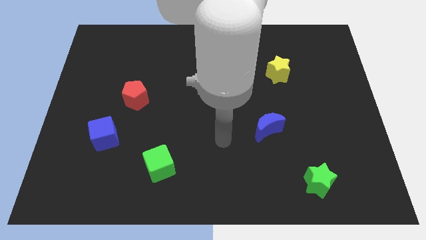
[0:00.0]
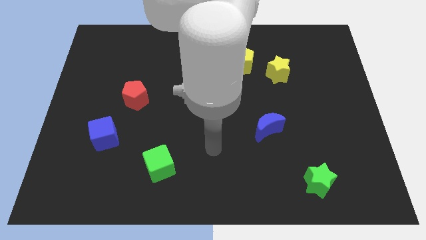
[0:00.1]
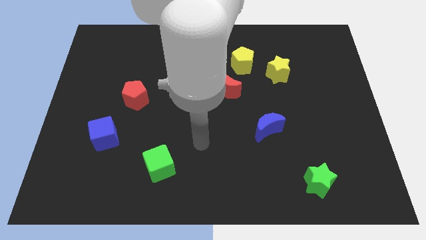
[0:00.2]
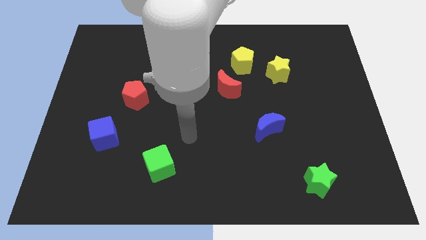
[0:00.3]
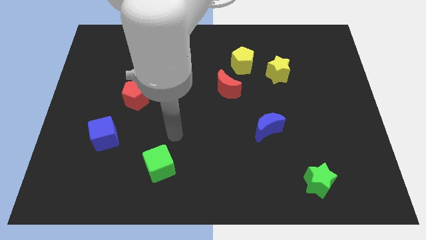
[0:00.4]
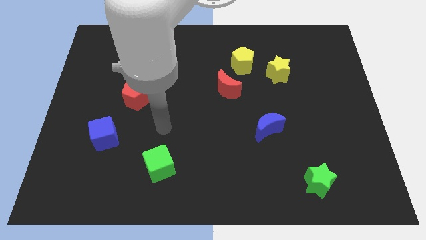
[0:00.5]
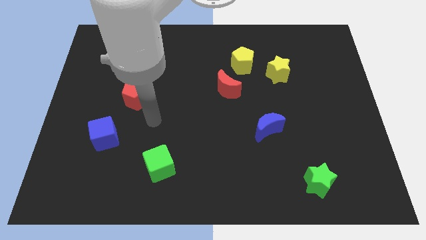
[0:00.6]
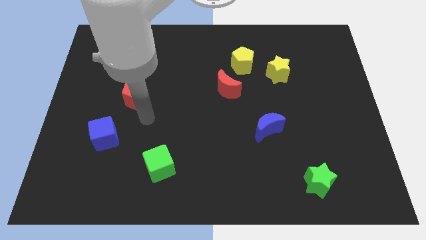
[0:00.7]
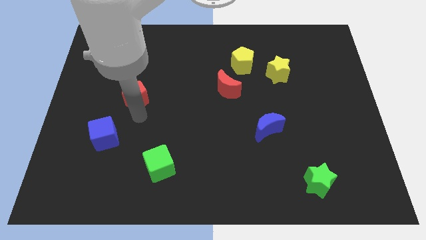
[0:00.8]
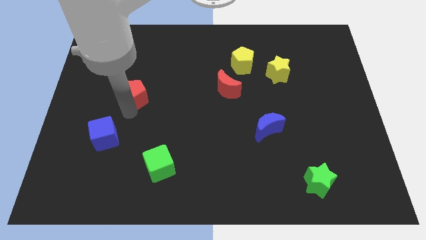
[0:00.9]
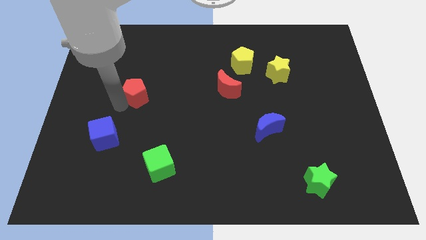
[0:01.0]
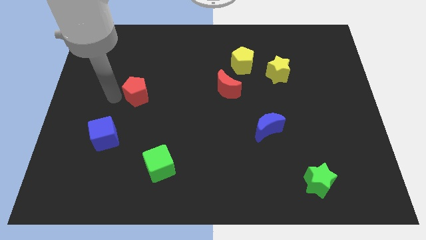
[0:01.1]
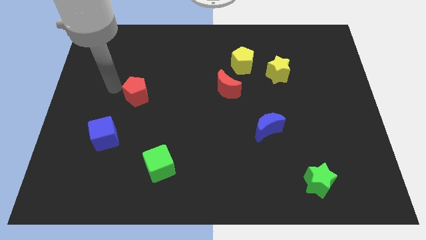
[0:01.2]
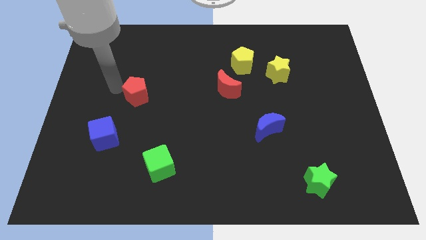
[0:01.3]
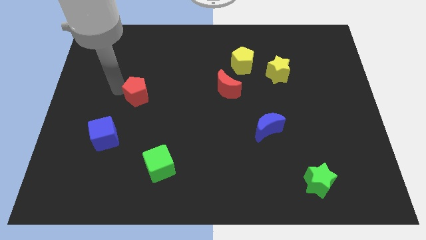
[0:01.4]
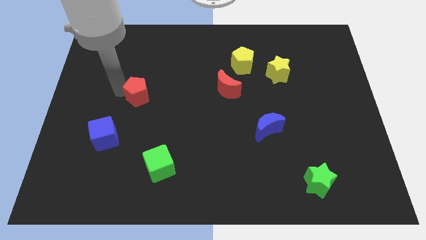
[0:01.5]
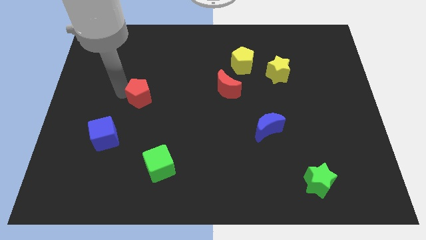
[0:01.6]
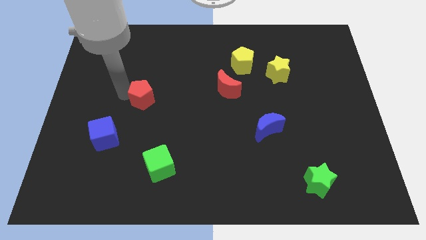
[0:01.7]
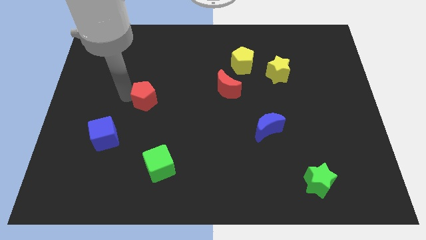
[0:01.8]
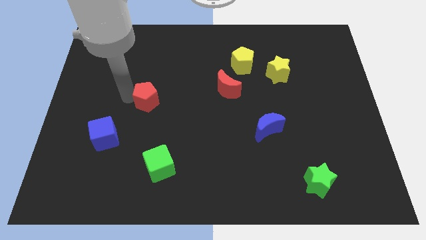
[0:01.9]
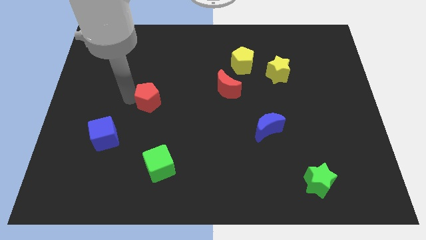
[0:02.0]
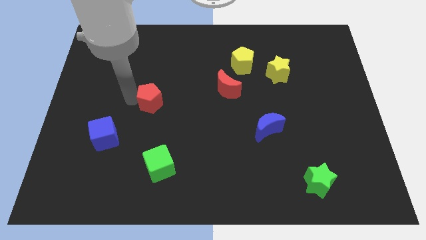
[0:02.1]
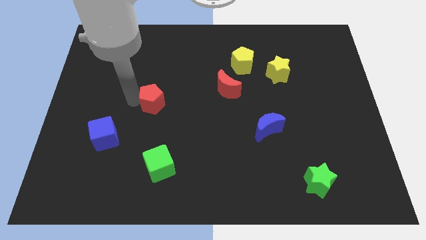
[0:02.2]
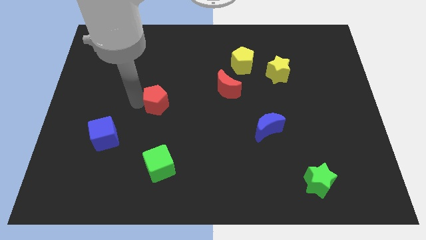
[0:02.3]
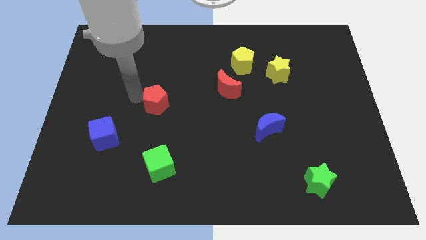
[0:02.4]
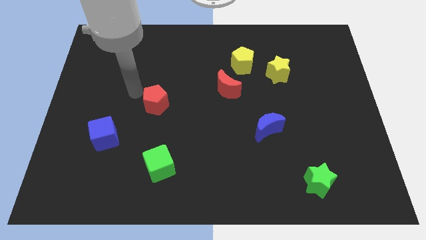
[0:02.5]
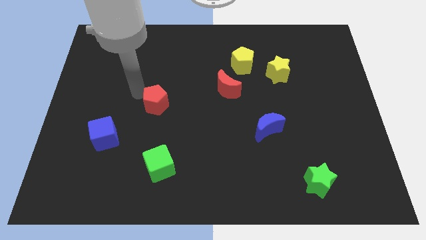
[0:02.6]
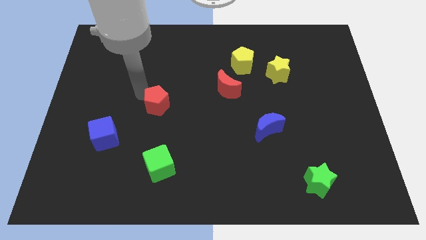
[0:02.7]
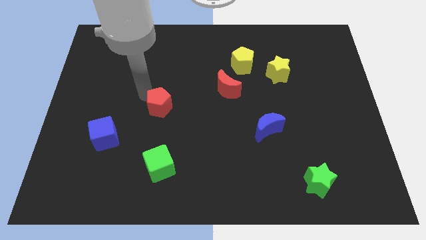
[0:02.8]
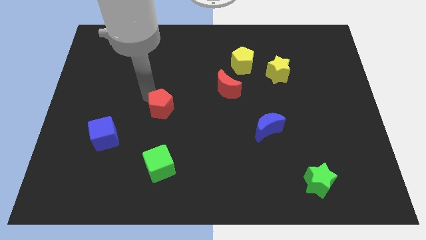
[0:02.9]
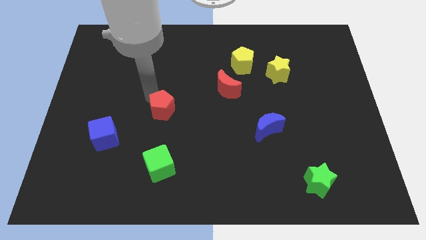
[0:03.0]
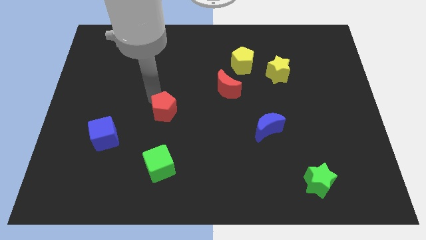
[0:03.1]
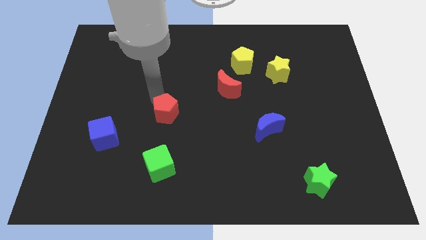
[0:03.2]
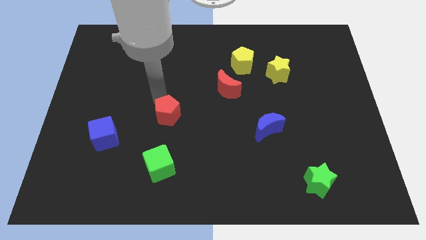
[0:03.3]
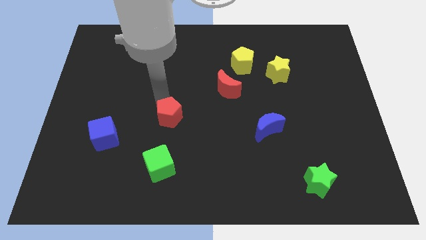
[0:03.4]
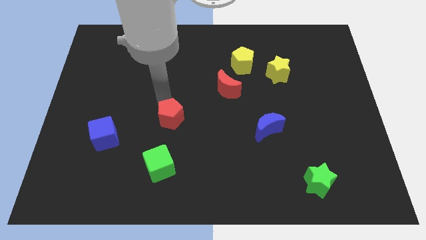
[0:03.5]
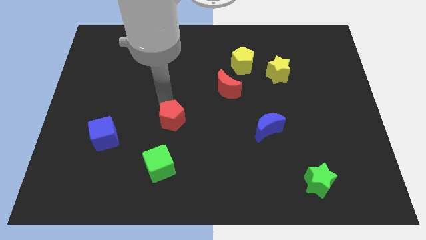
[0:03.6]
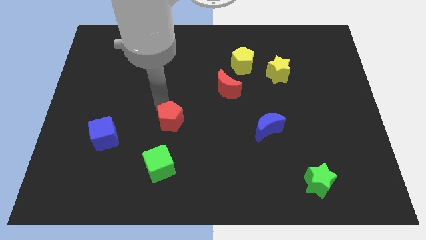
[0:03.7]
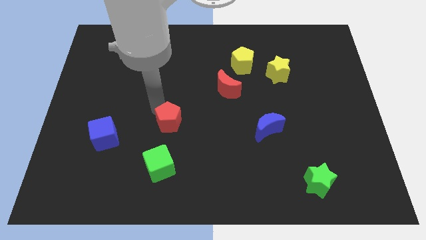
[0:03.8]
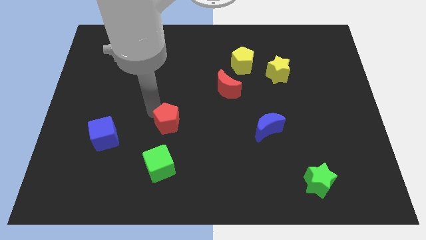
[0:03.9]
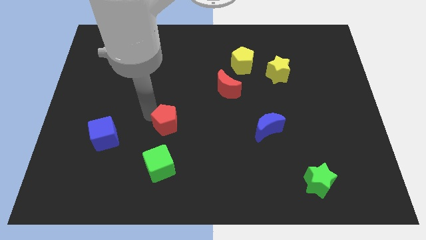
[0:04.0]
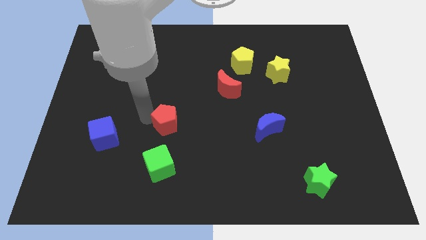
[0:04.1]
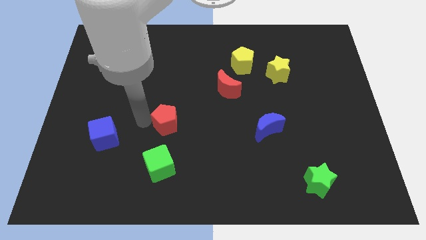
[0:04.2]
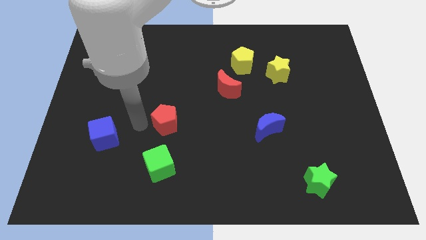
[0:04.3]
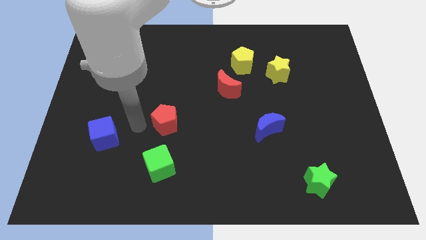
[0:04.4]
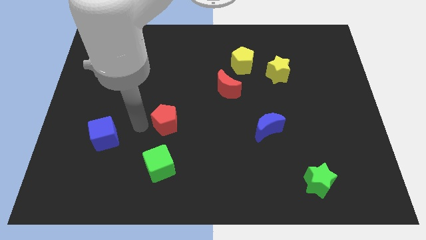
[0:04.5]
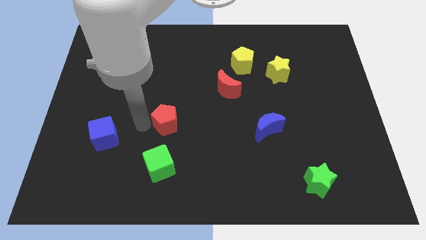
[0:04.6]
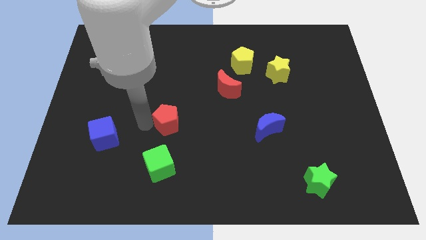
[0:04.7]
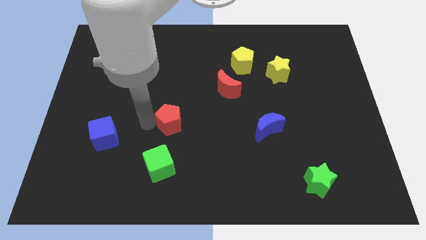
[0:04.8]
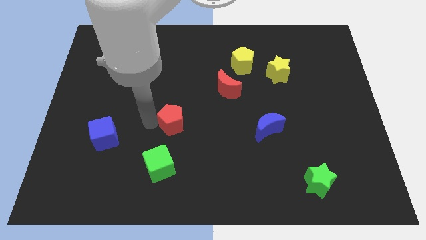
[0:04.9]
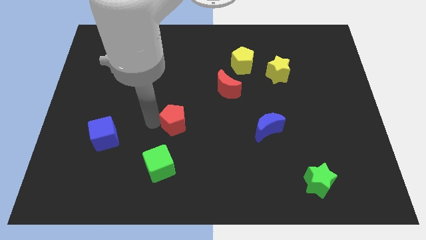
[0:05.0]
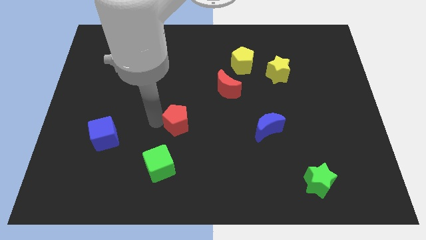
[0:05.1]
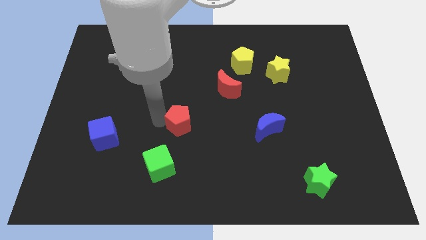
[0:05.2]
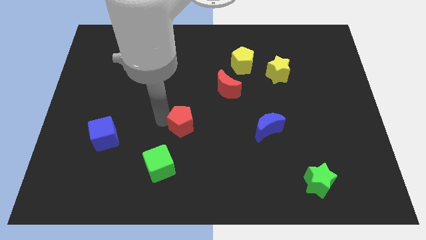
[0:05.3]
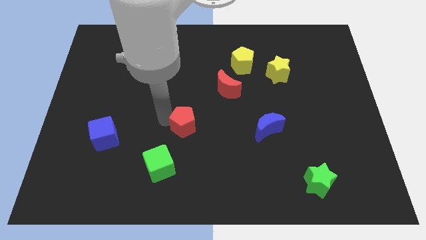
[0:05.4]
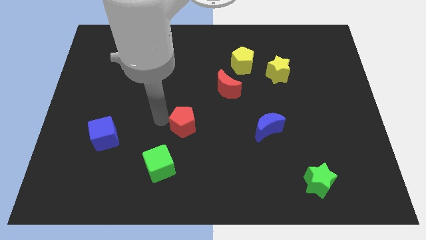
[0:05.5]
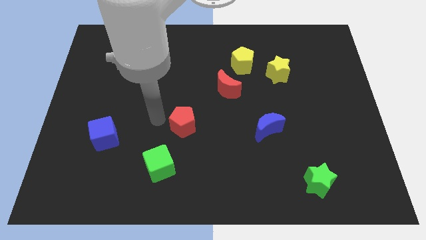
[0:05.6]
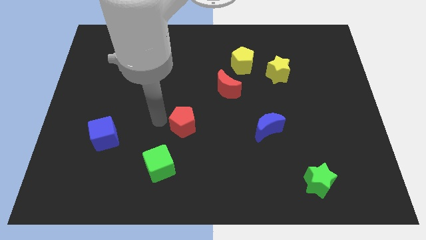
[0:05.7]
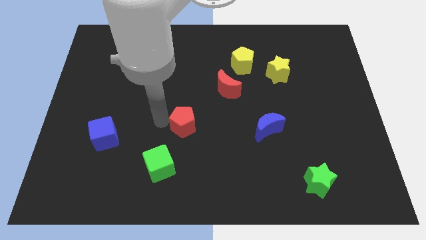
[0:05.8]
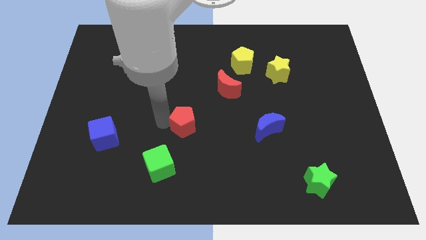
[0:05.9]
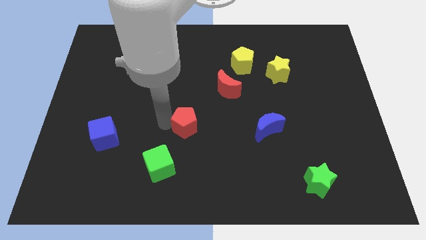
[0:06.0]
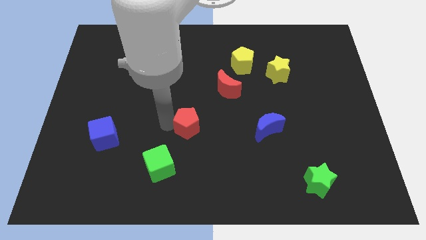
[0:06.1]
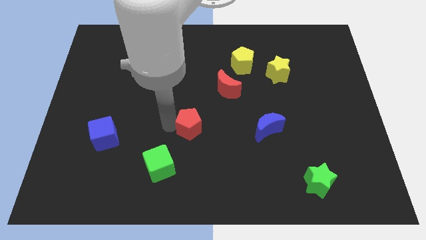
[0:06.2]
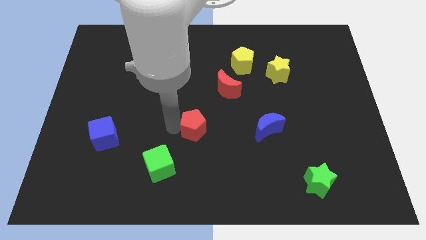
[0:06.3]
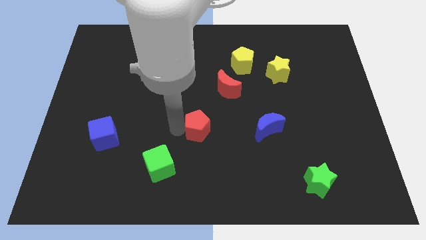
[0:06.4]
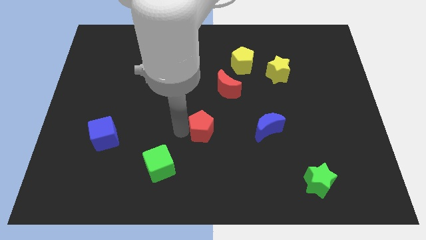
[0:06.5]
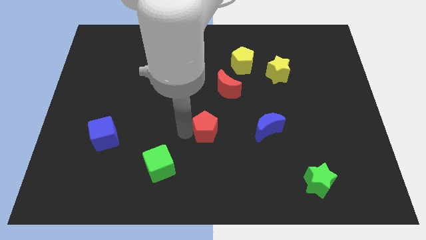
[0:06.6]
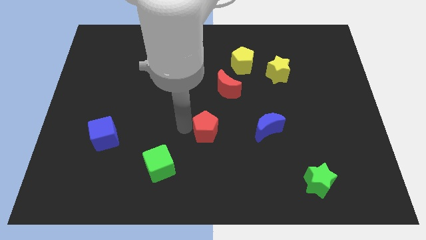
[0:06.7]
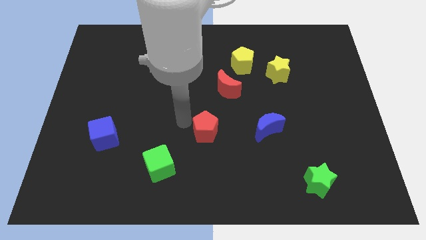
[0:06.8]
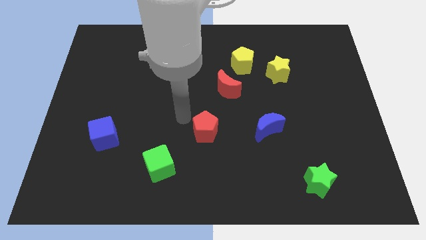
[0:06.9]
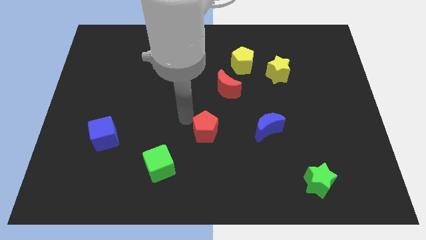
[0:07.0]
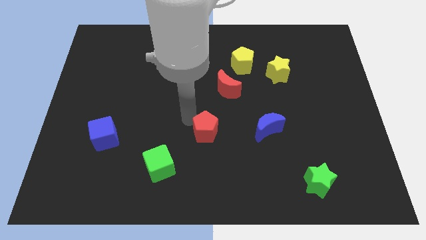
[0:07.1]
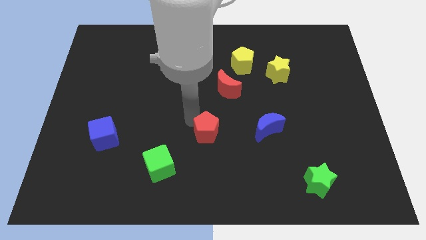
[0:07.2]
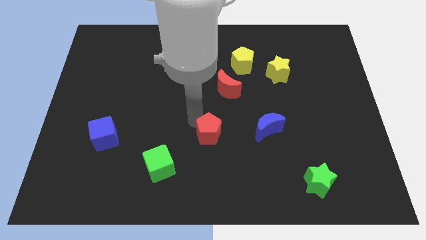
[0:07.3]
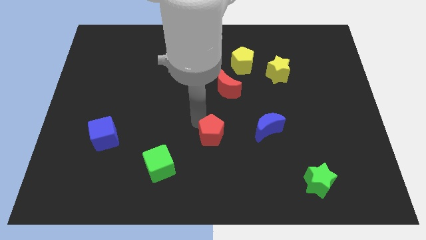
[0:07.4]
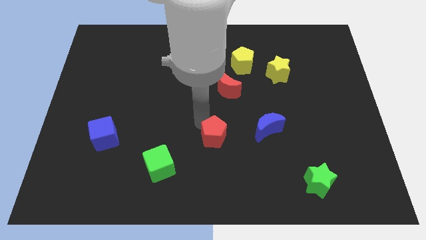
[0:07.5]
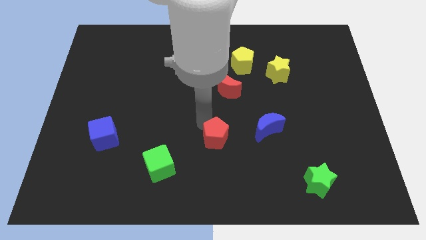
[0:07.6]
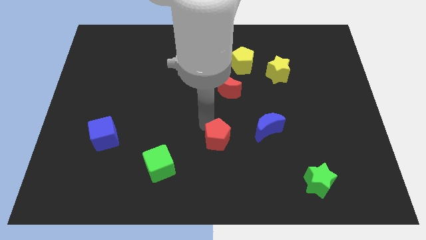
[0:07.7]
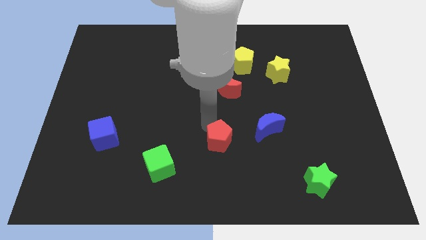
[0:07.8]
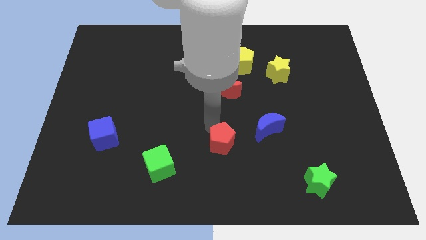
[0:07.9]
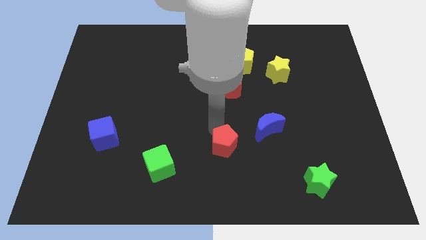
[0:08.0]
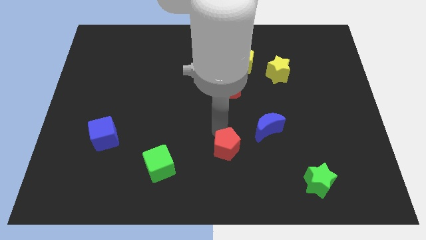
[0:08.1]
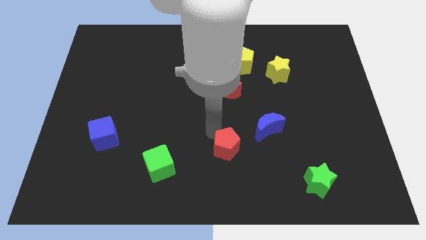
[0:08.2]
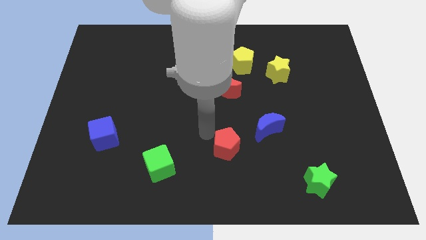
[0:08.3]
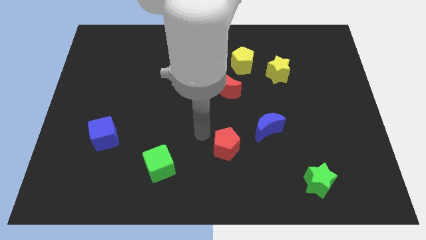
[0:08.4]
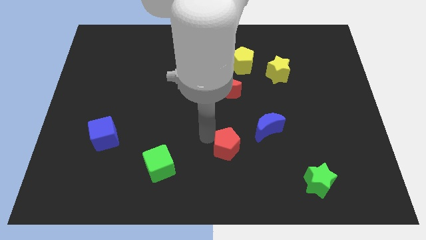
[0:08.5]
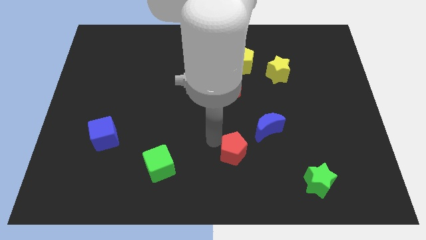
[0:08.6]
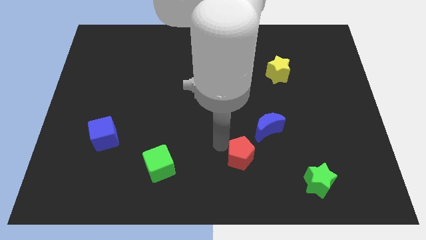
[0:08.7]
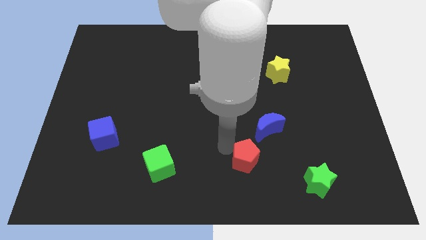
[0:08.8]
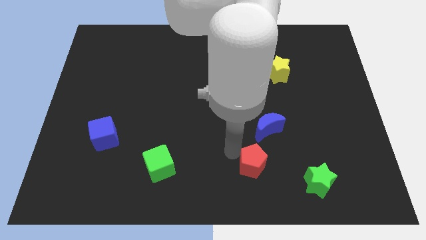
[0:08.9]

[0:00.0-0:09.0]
put the red pentagon below the blue moon
